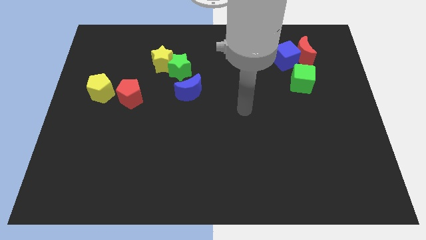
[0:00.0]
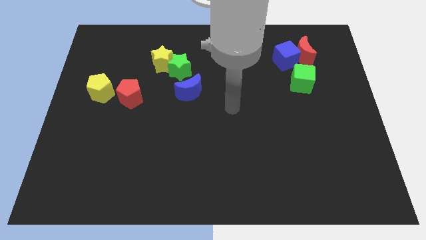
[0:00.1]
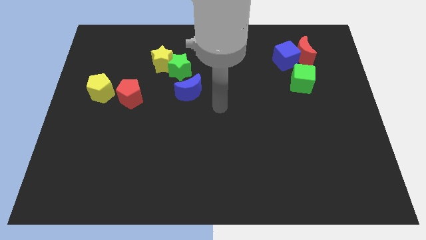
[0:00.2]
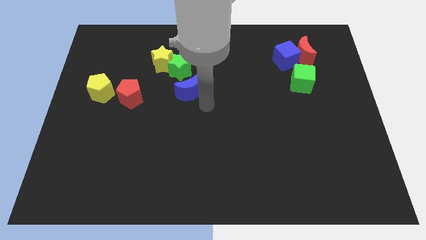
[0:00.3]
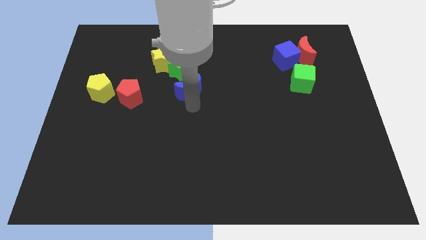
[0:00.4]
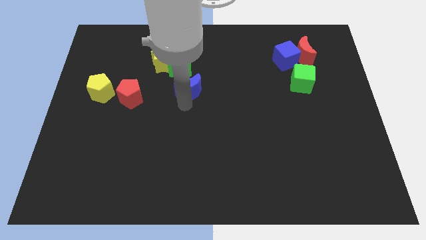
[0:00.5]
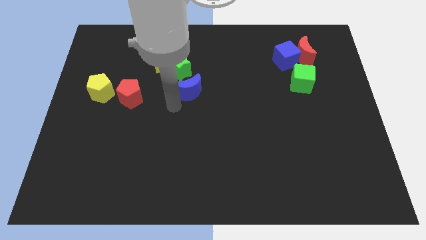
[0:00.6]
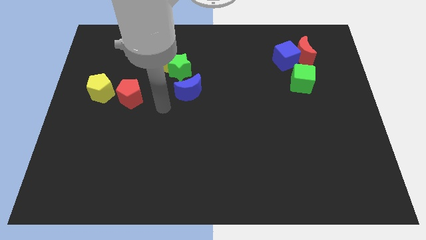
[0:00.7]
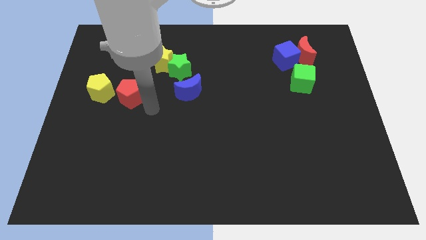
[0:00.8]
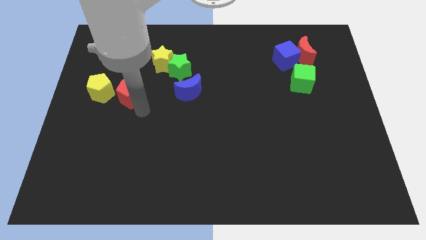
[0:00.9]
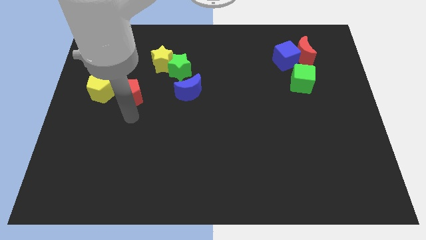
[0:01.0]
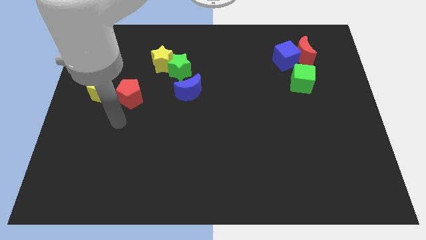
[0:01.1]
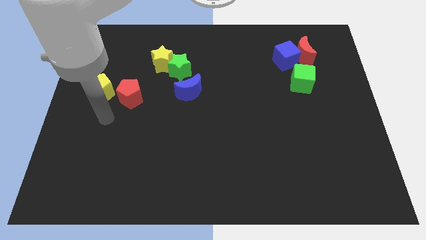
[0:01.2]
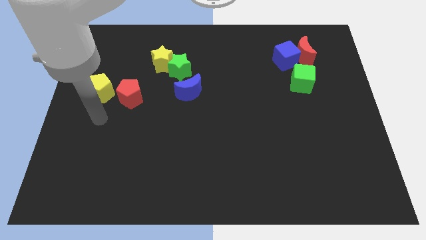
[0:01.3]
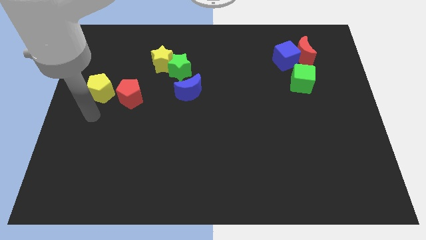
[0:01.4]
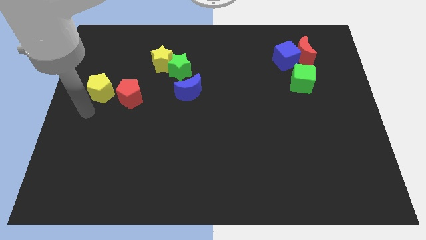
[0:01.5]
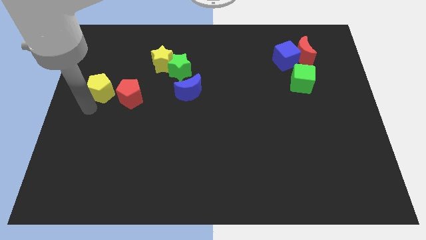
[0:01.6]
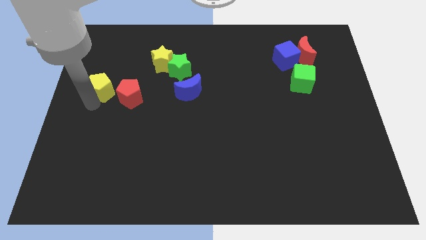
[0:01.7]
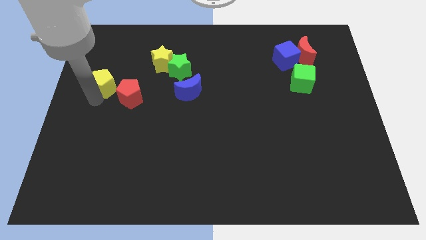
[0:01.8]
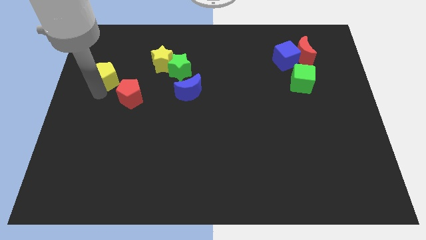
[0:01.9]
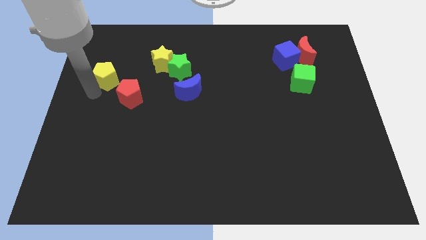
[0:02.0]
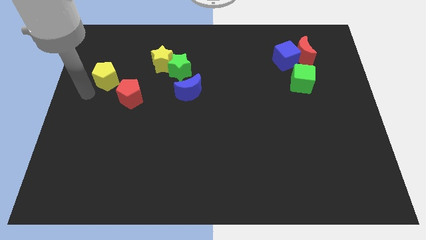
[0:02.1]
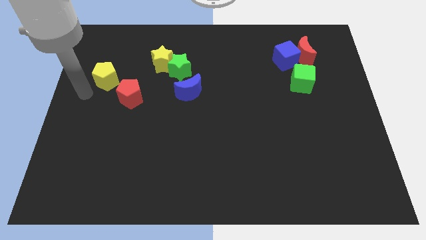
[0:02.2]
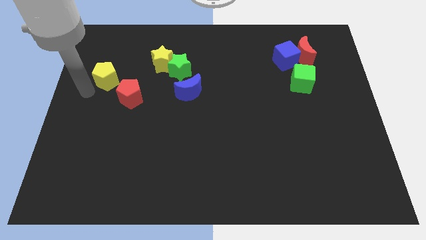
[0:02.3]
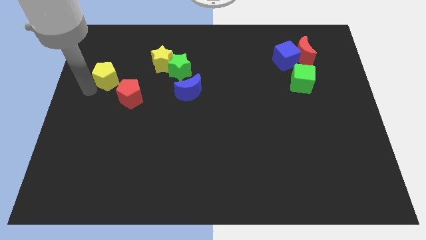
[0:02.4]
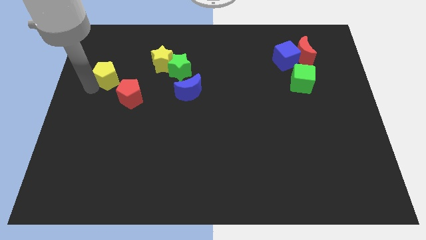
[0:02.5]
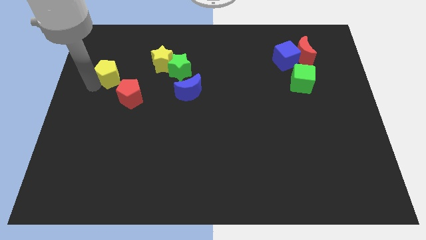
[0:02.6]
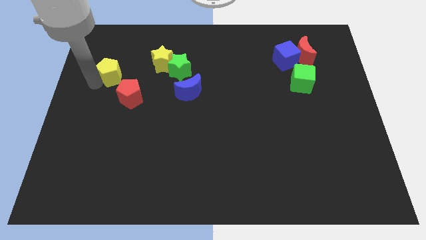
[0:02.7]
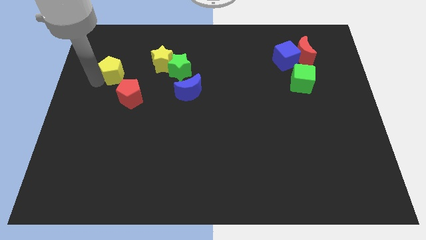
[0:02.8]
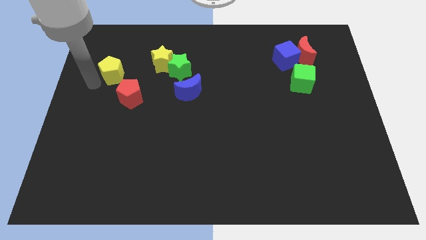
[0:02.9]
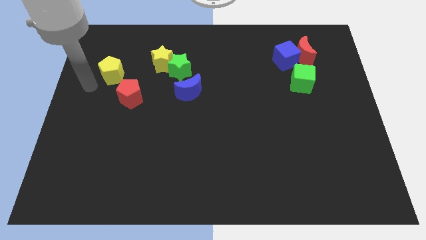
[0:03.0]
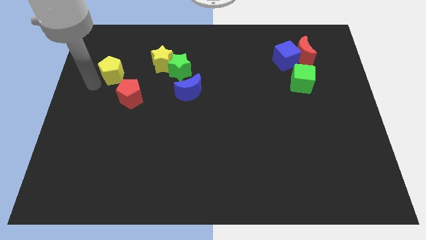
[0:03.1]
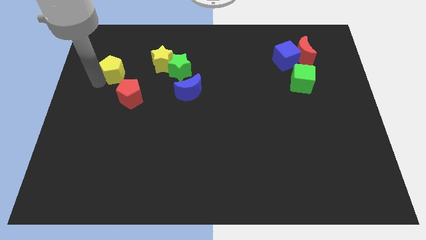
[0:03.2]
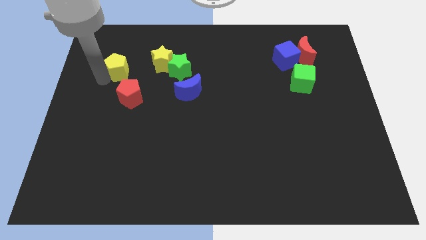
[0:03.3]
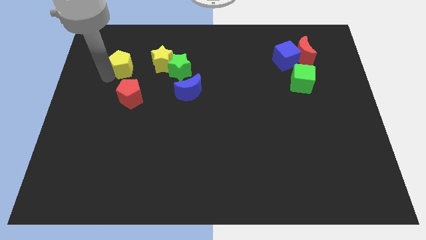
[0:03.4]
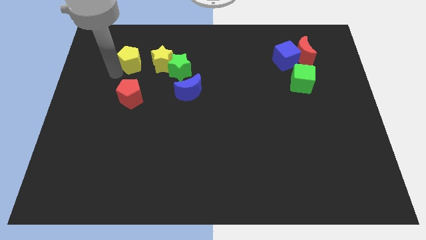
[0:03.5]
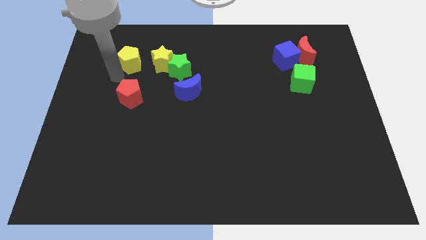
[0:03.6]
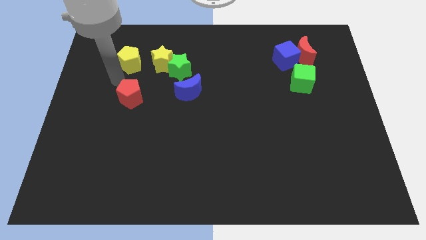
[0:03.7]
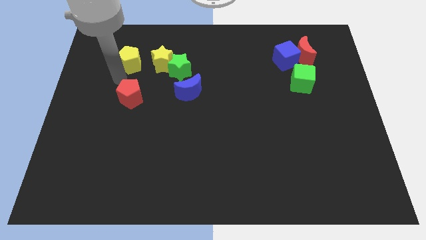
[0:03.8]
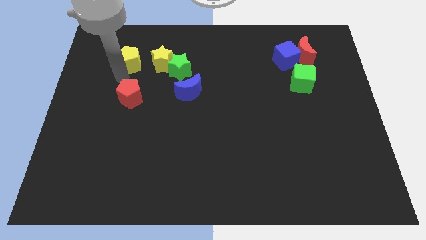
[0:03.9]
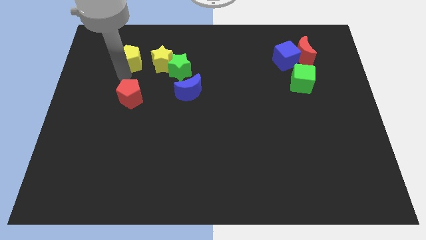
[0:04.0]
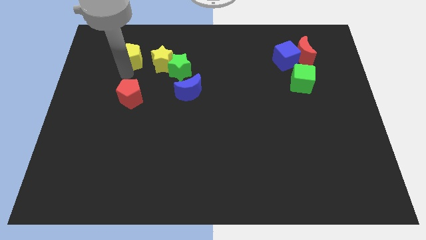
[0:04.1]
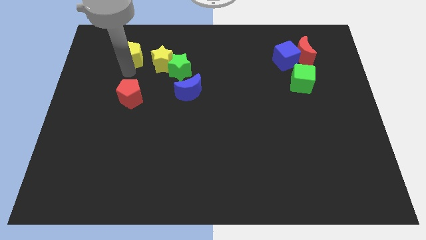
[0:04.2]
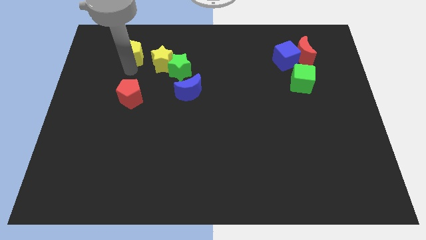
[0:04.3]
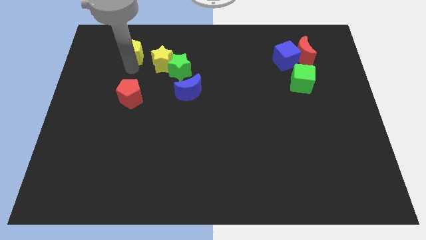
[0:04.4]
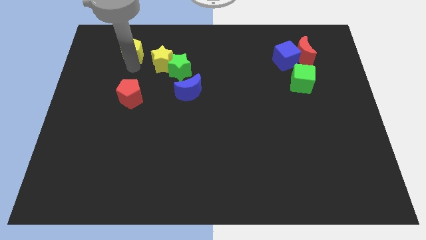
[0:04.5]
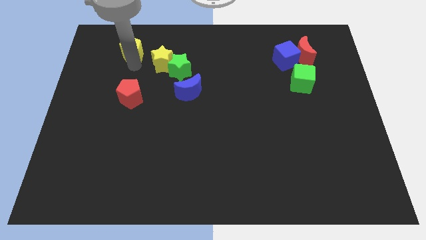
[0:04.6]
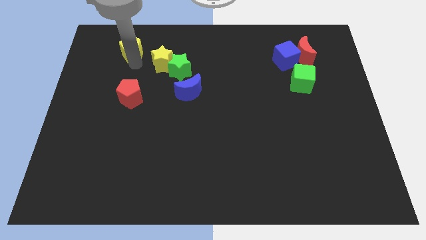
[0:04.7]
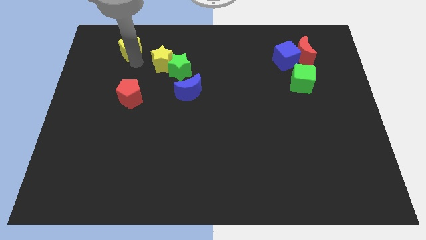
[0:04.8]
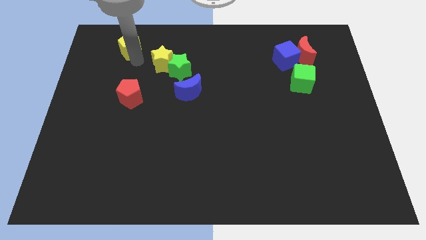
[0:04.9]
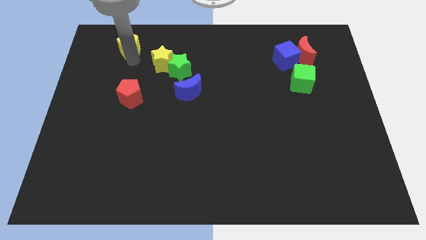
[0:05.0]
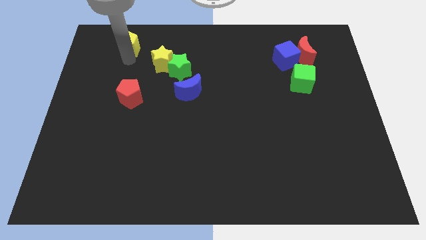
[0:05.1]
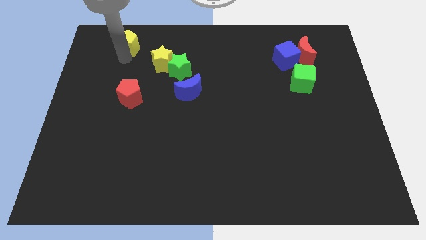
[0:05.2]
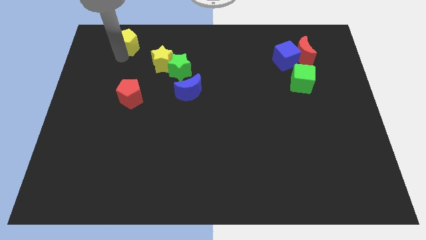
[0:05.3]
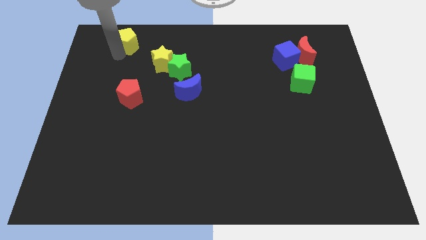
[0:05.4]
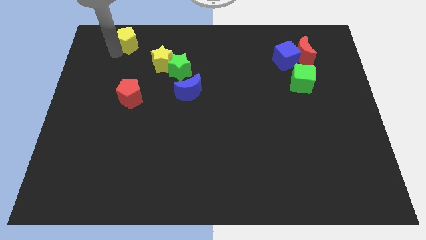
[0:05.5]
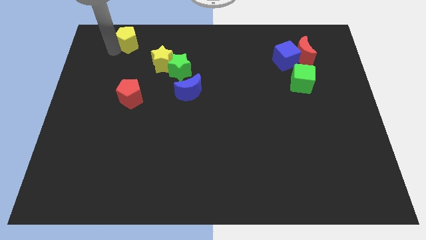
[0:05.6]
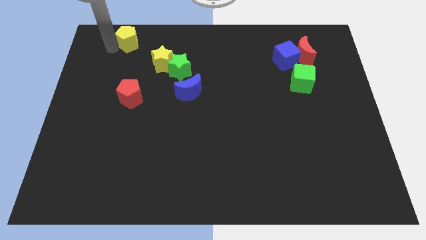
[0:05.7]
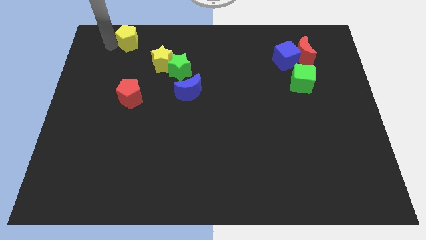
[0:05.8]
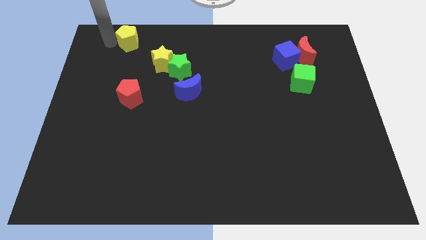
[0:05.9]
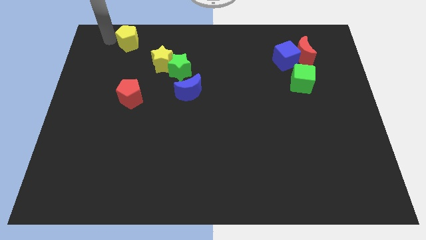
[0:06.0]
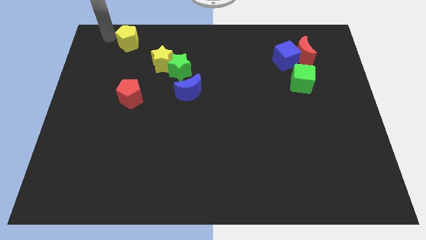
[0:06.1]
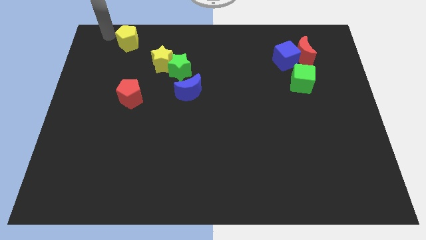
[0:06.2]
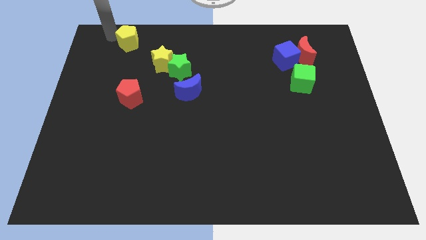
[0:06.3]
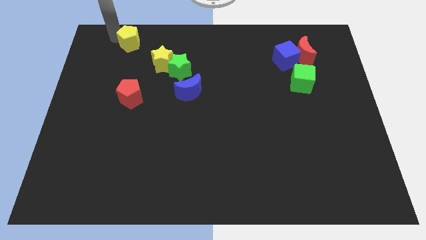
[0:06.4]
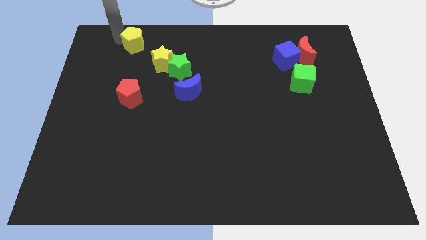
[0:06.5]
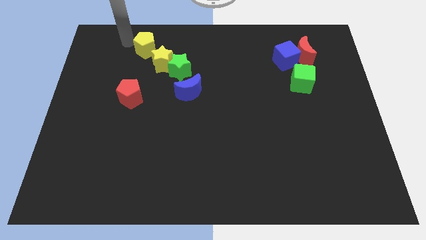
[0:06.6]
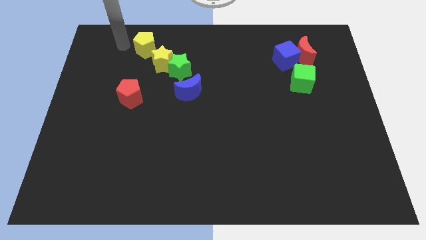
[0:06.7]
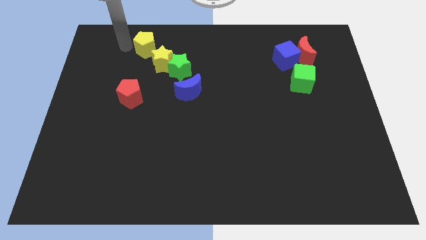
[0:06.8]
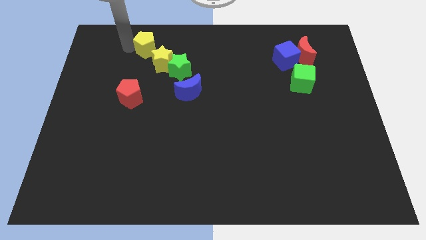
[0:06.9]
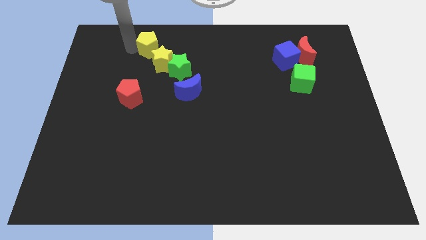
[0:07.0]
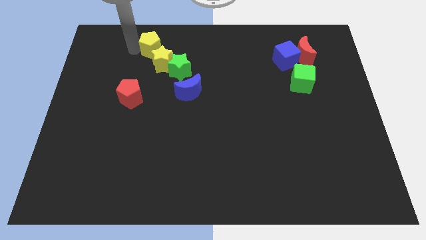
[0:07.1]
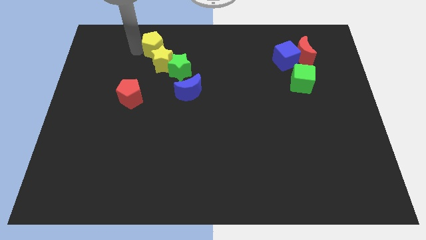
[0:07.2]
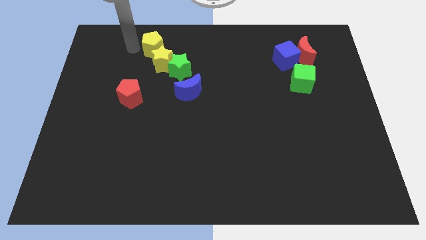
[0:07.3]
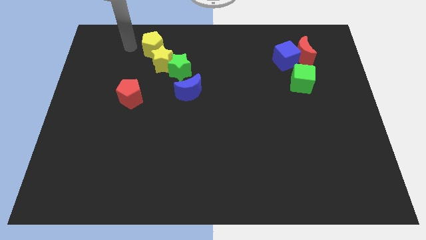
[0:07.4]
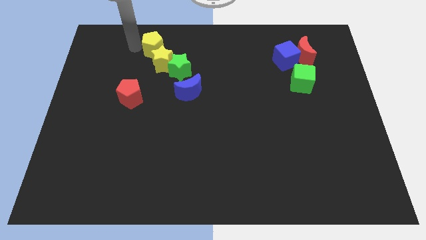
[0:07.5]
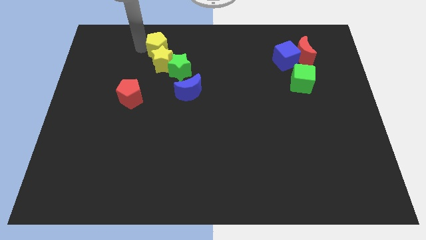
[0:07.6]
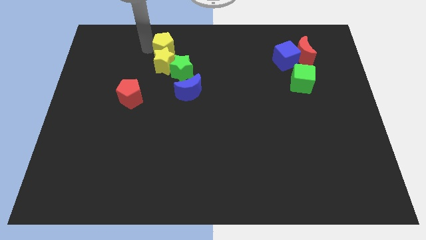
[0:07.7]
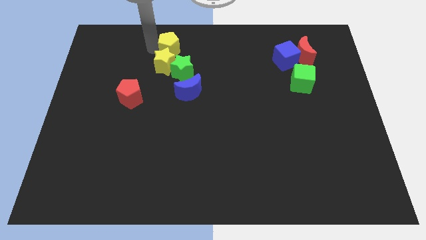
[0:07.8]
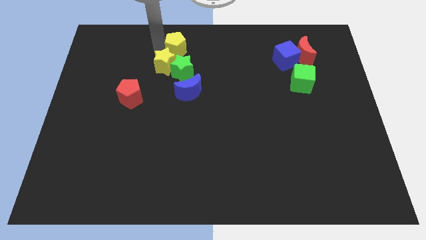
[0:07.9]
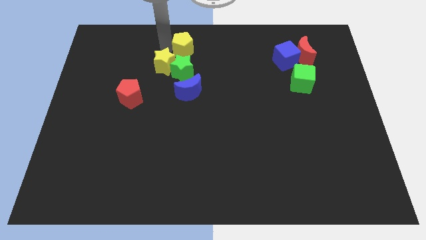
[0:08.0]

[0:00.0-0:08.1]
move the yellow pentagon to the towards your base
